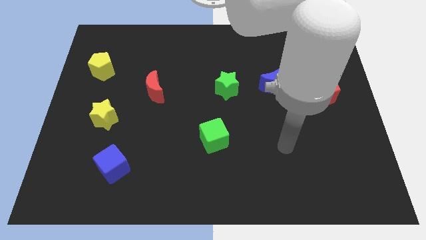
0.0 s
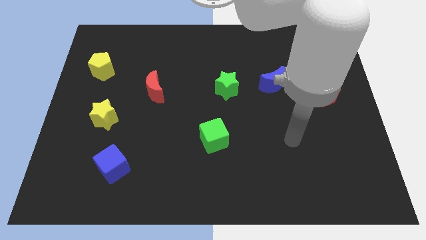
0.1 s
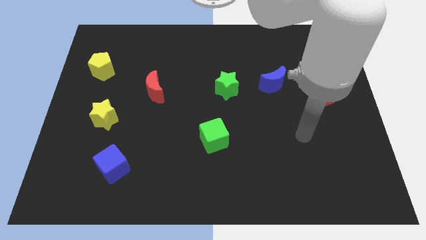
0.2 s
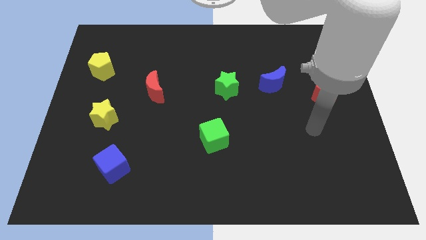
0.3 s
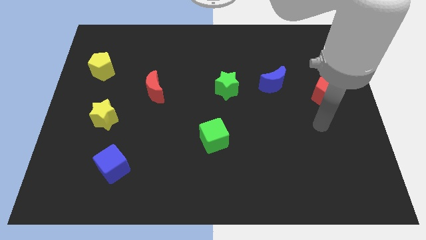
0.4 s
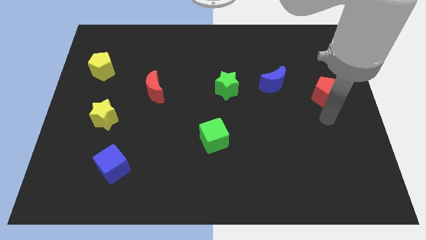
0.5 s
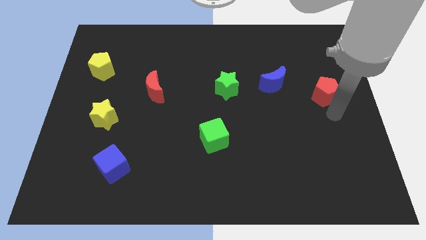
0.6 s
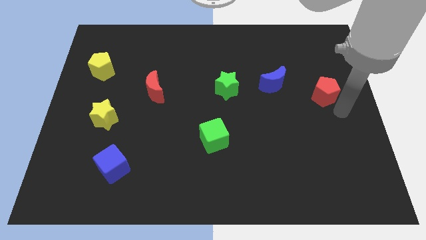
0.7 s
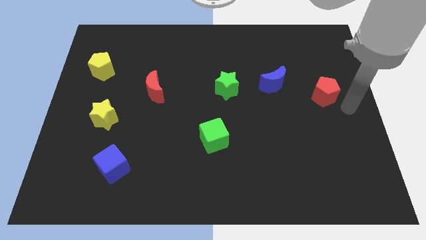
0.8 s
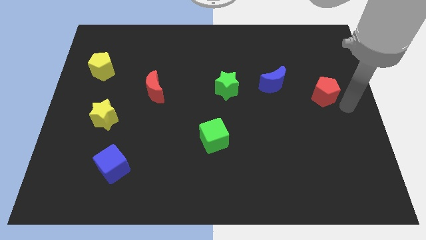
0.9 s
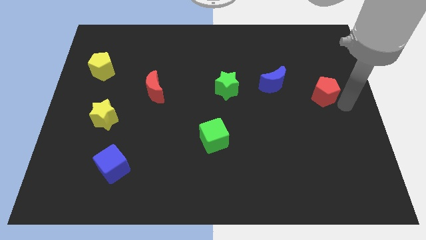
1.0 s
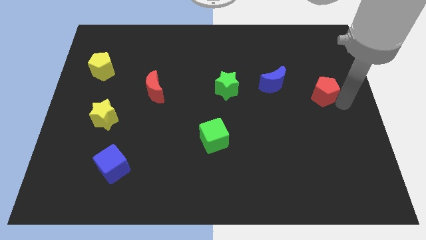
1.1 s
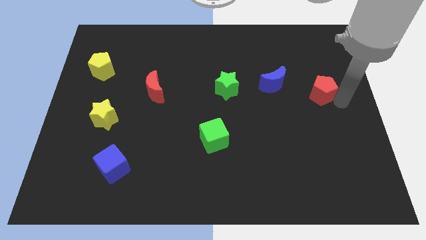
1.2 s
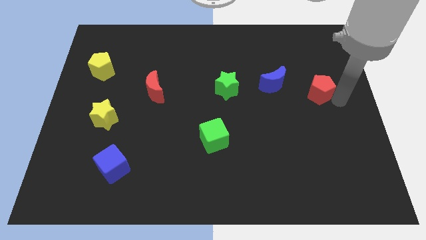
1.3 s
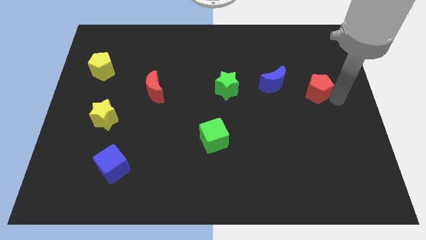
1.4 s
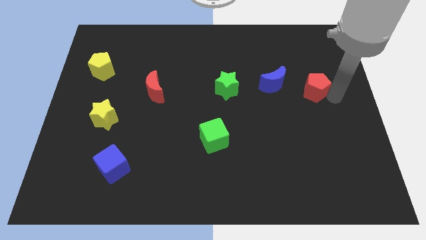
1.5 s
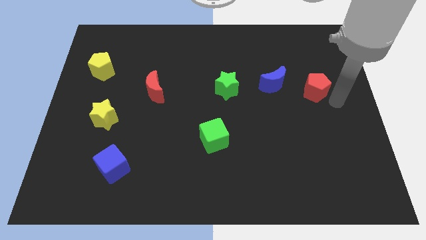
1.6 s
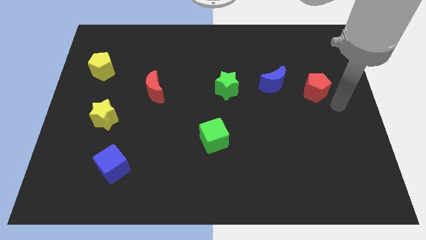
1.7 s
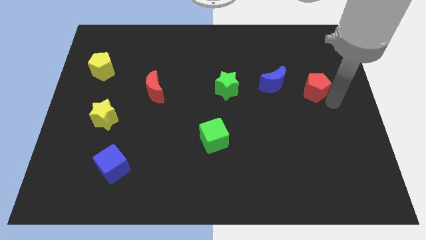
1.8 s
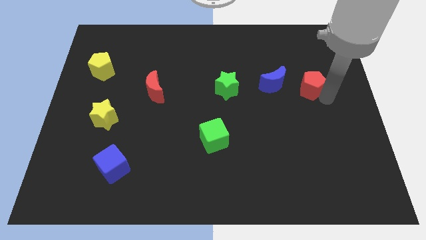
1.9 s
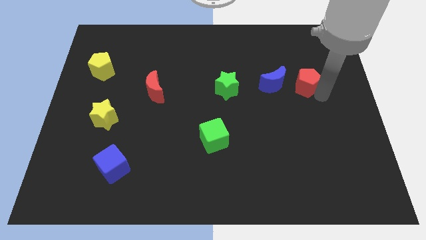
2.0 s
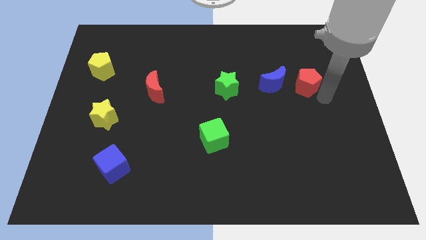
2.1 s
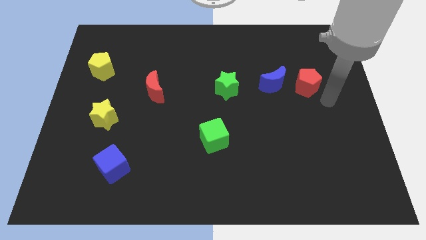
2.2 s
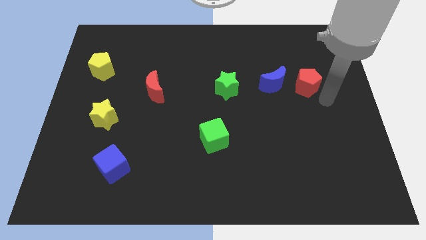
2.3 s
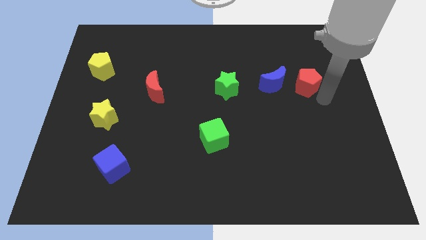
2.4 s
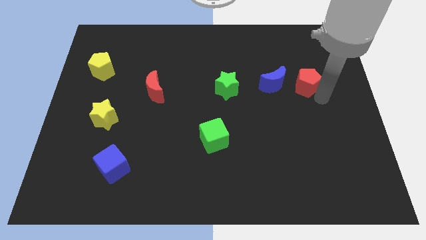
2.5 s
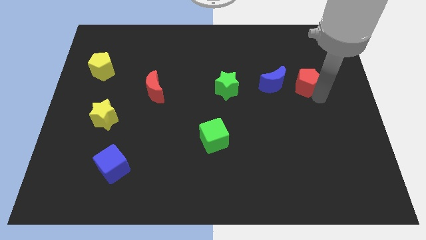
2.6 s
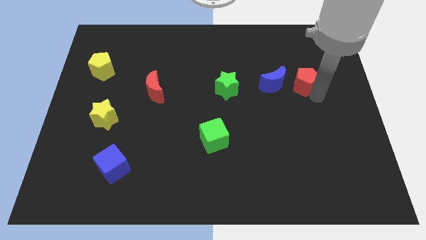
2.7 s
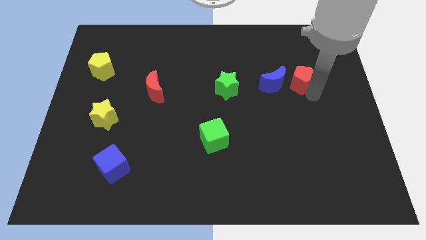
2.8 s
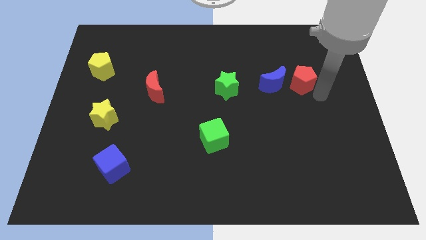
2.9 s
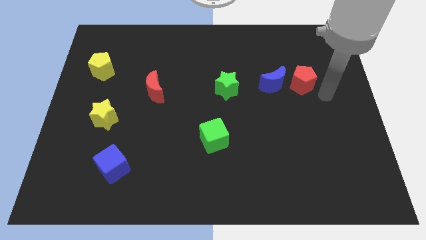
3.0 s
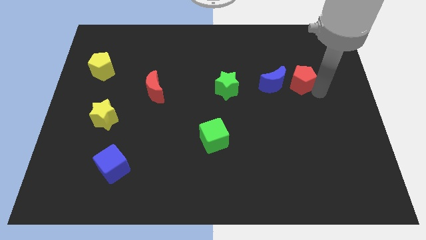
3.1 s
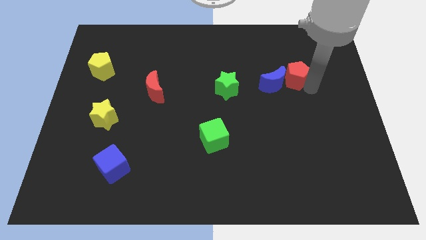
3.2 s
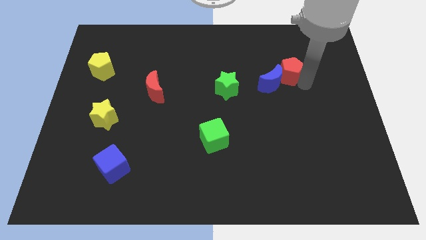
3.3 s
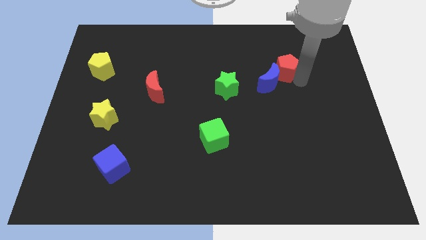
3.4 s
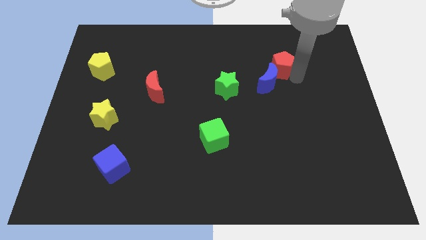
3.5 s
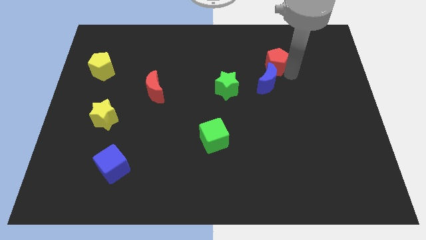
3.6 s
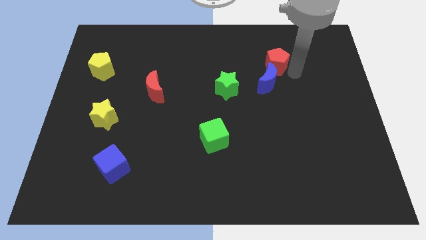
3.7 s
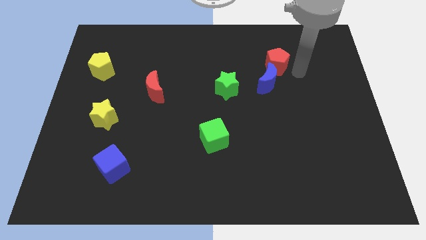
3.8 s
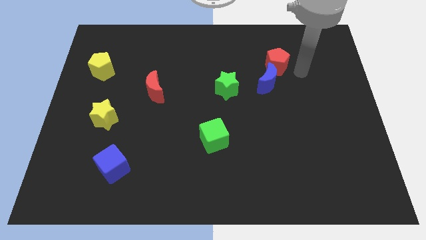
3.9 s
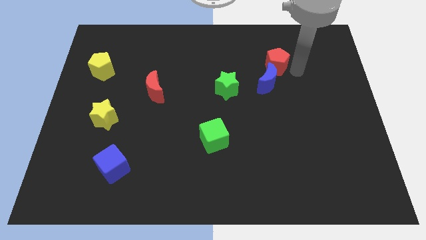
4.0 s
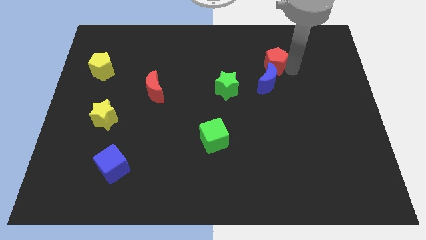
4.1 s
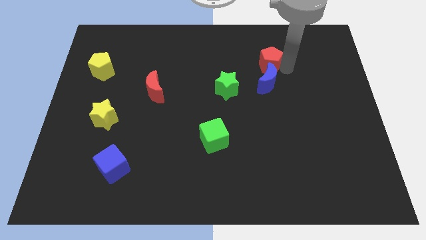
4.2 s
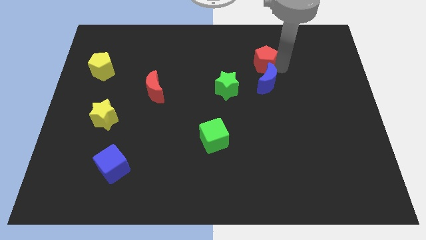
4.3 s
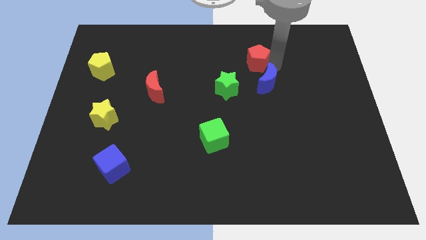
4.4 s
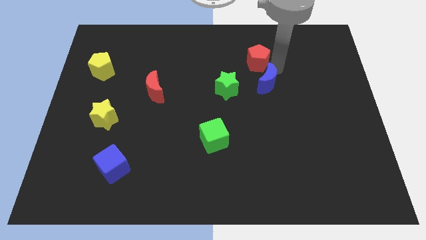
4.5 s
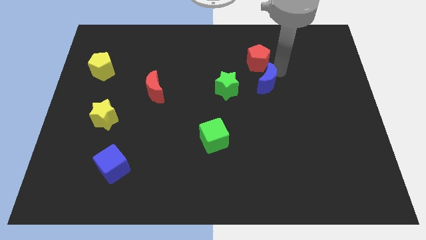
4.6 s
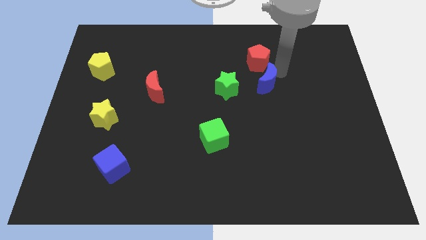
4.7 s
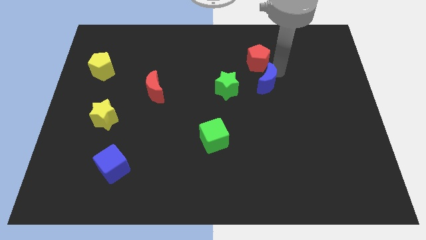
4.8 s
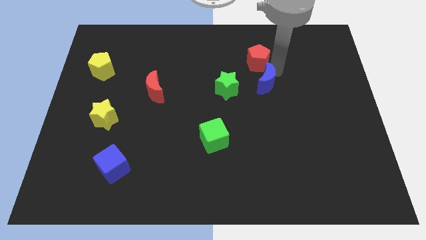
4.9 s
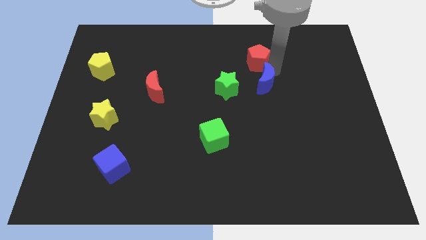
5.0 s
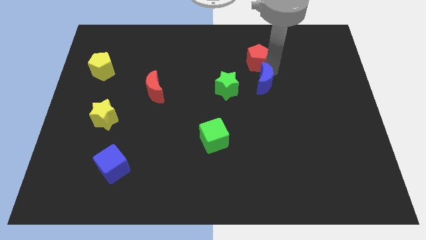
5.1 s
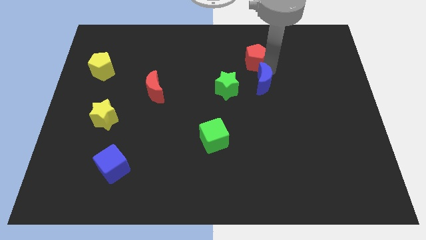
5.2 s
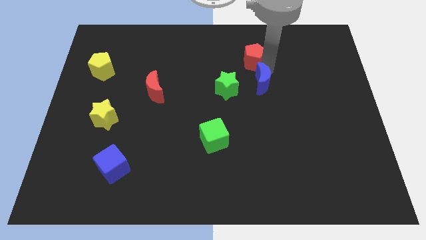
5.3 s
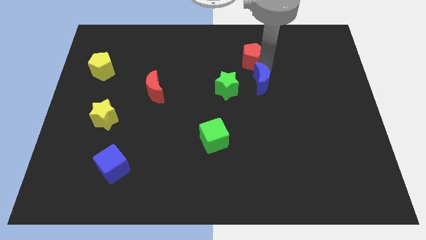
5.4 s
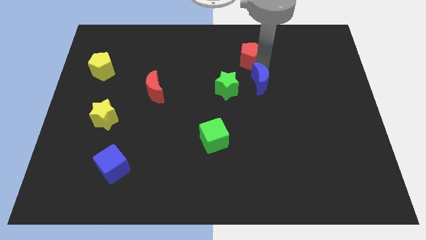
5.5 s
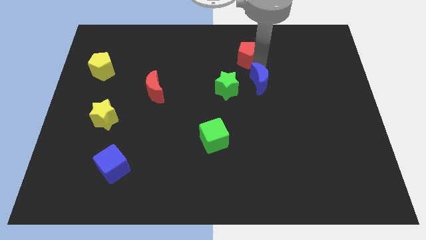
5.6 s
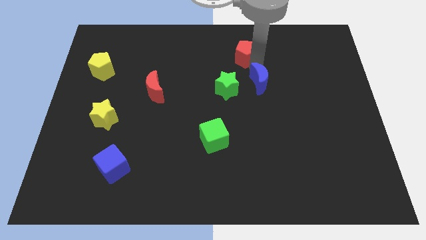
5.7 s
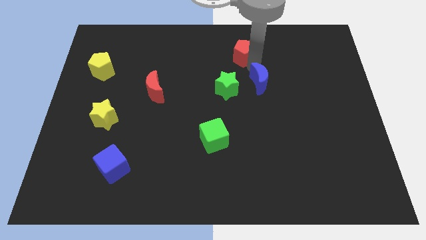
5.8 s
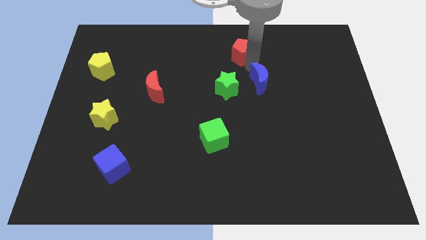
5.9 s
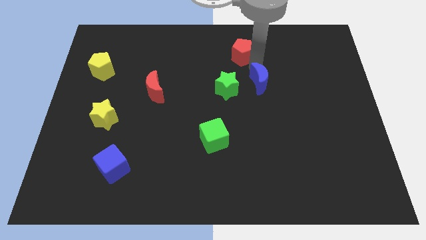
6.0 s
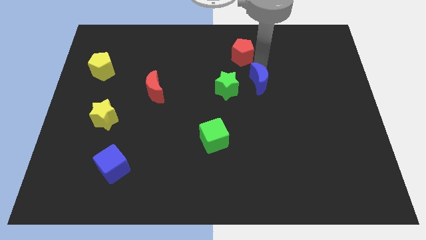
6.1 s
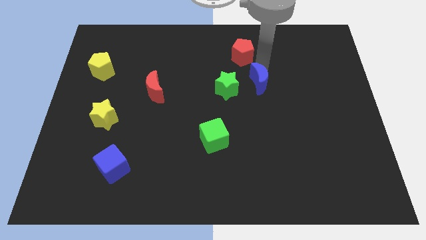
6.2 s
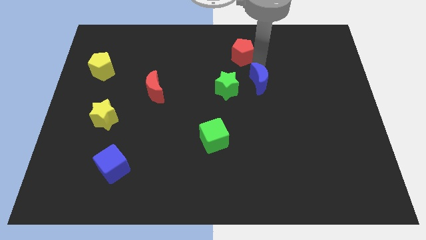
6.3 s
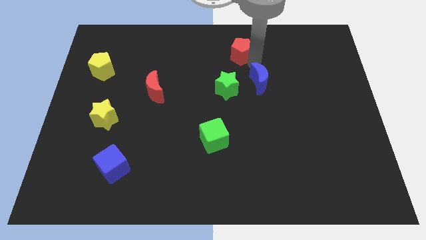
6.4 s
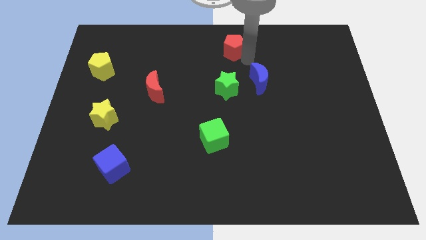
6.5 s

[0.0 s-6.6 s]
push the red pentagon to the top

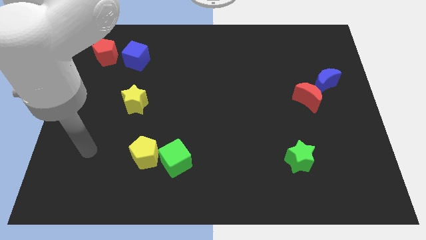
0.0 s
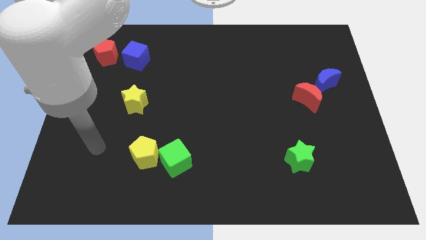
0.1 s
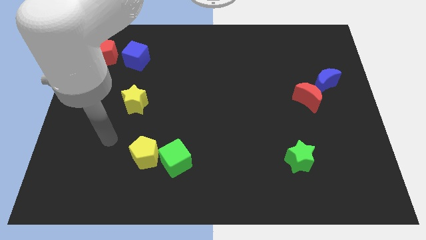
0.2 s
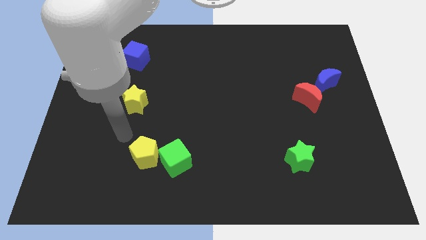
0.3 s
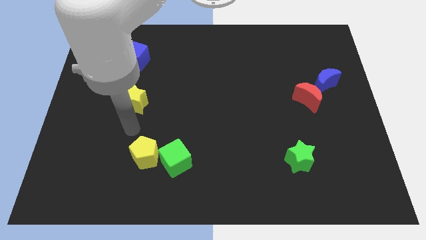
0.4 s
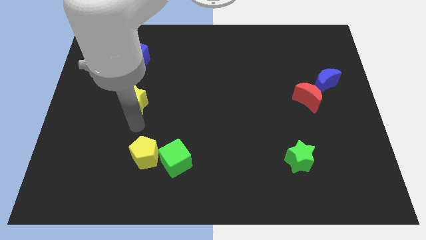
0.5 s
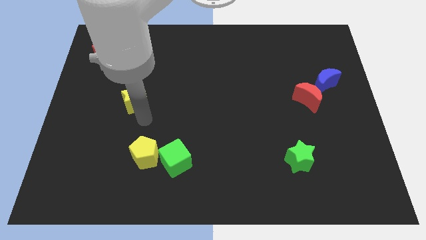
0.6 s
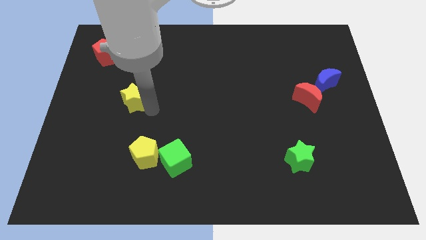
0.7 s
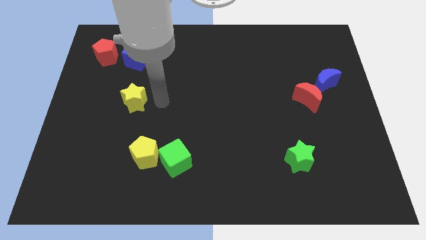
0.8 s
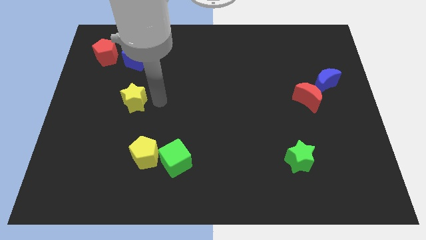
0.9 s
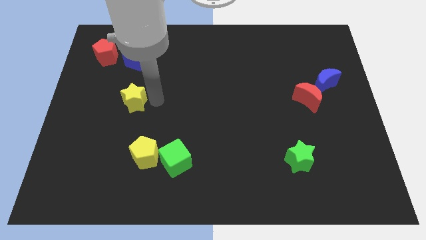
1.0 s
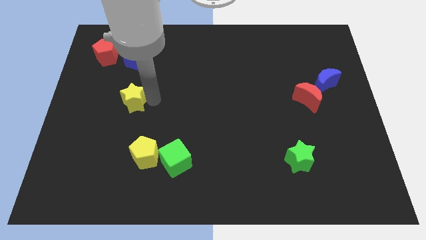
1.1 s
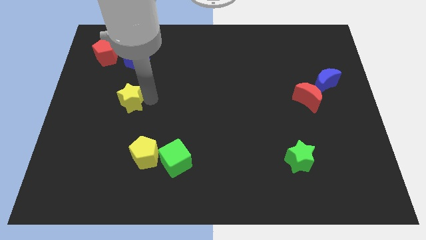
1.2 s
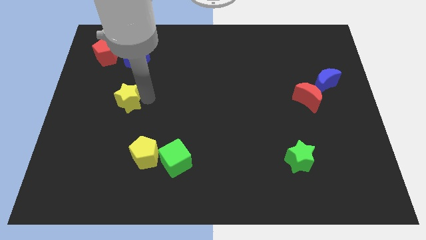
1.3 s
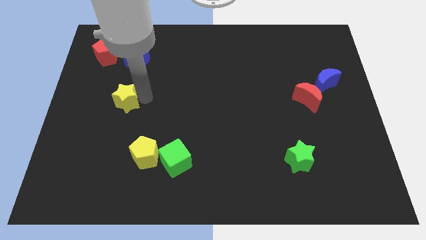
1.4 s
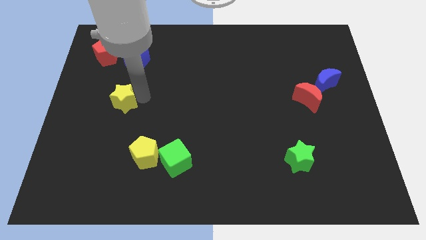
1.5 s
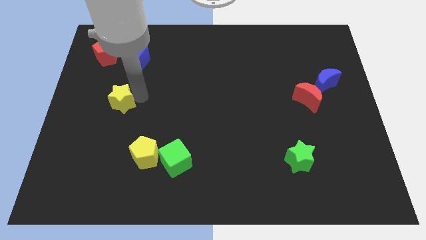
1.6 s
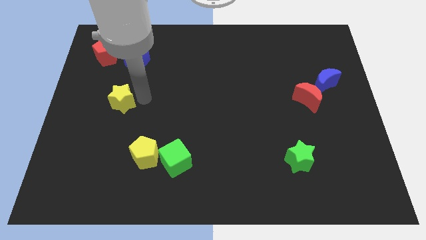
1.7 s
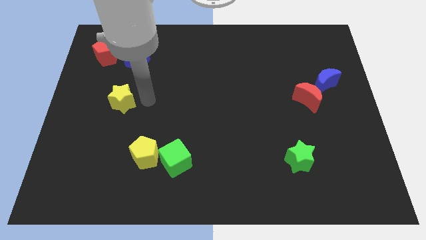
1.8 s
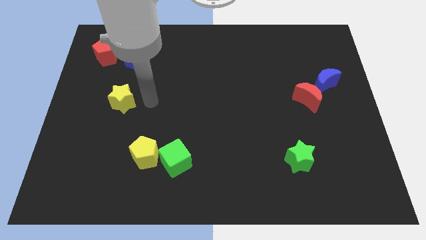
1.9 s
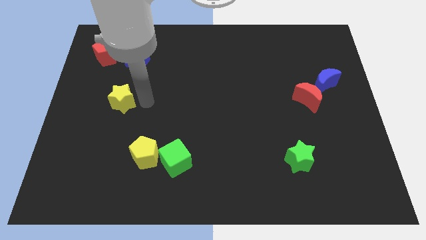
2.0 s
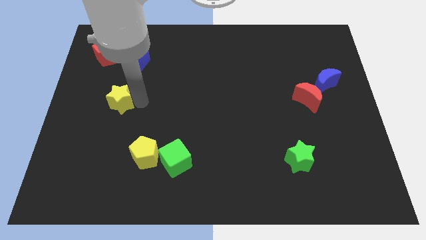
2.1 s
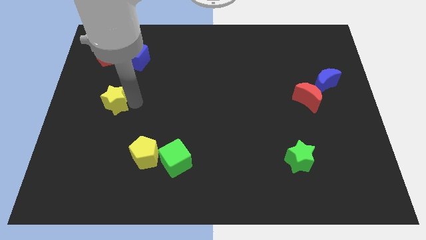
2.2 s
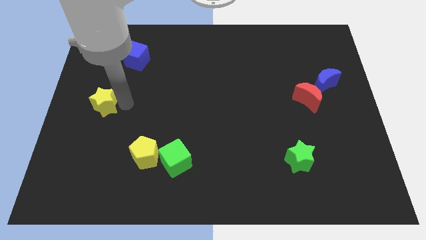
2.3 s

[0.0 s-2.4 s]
put the yellow star to the center left
